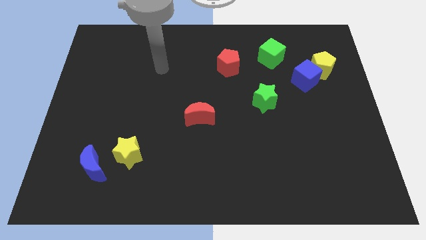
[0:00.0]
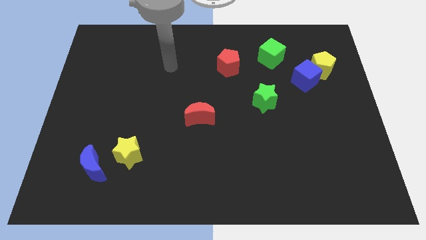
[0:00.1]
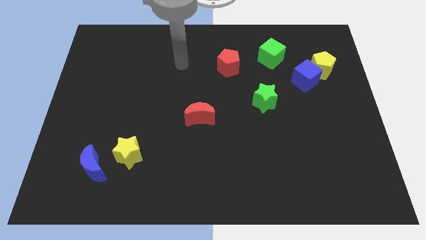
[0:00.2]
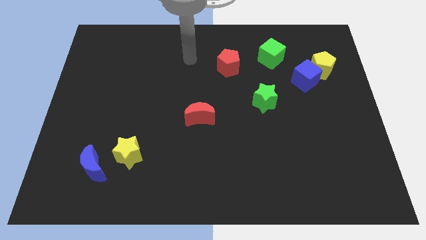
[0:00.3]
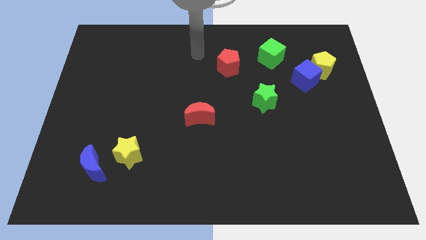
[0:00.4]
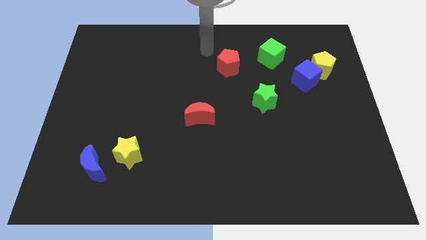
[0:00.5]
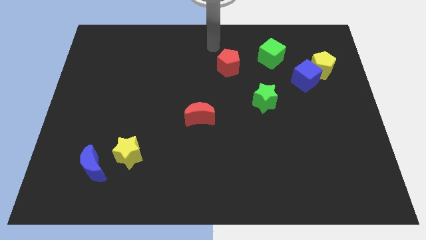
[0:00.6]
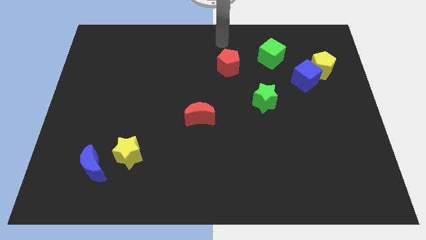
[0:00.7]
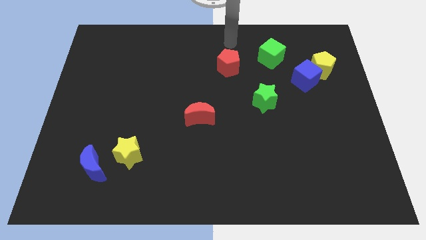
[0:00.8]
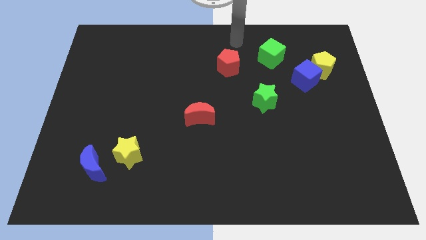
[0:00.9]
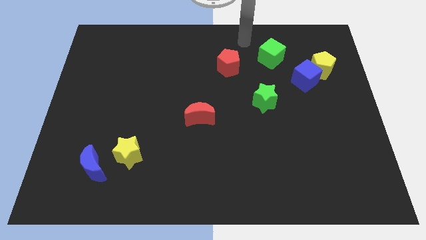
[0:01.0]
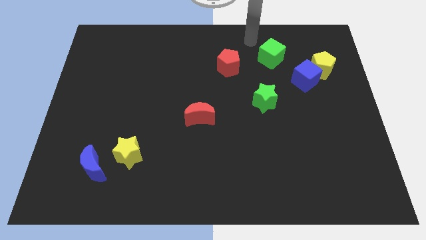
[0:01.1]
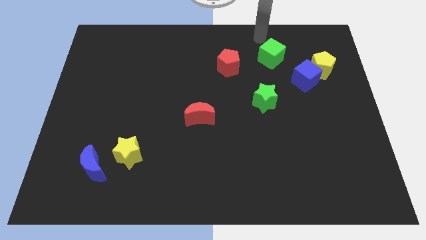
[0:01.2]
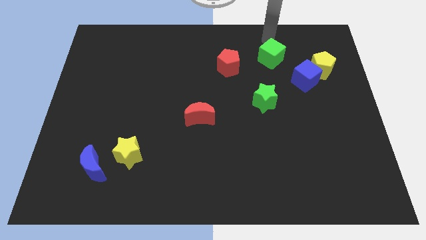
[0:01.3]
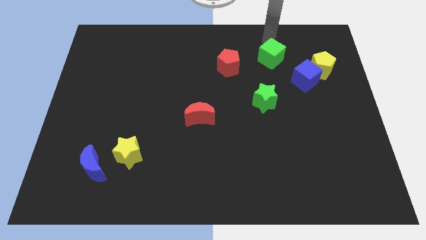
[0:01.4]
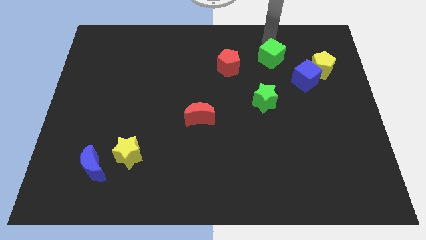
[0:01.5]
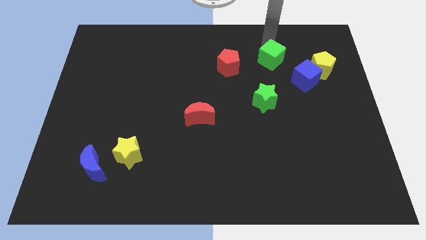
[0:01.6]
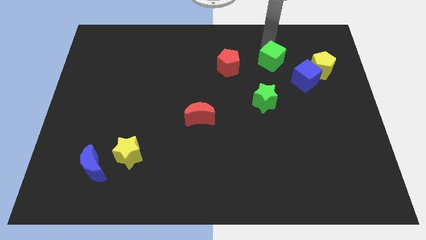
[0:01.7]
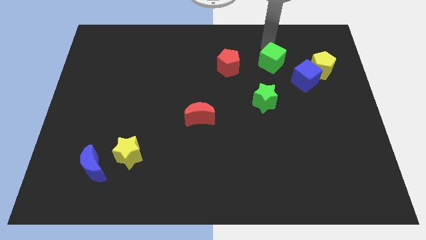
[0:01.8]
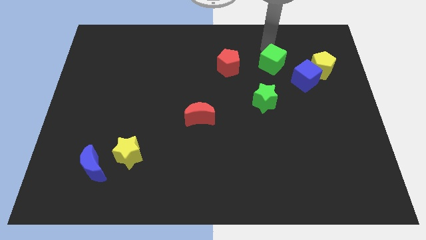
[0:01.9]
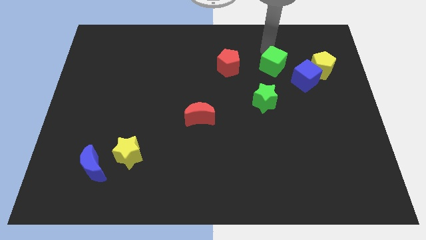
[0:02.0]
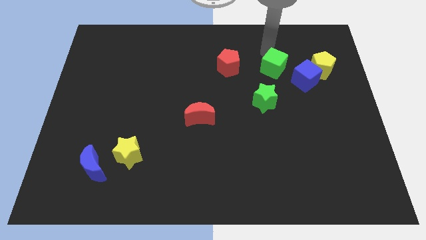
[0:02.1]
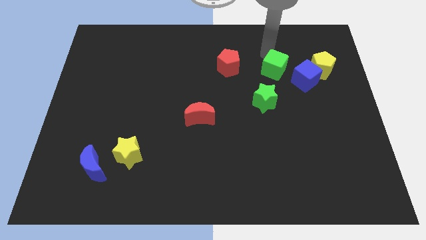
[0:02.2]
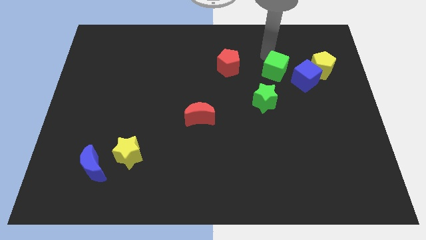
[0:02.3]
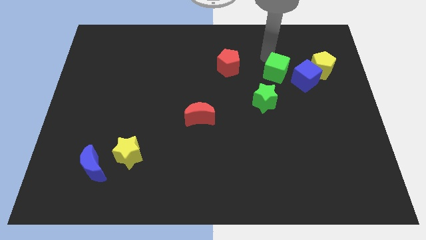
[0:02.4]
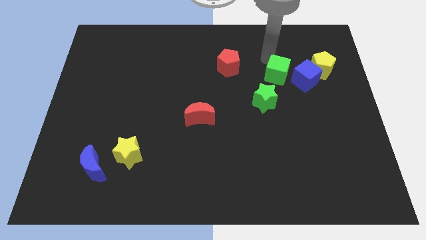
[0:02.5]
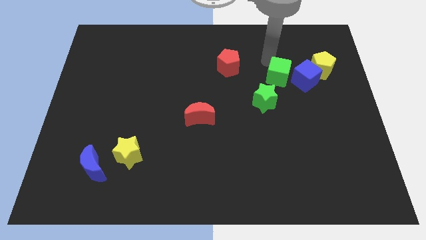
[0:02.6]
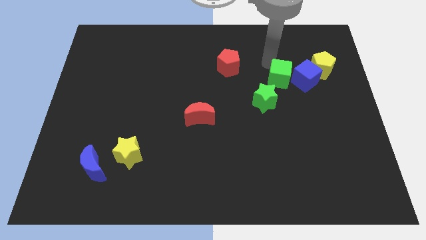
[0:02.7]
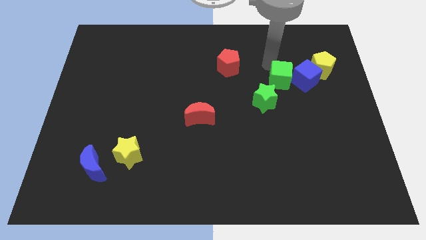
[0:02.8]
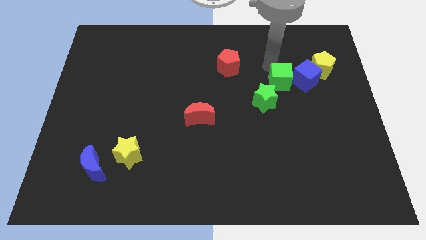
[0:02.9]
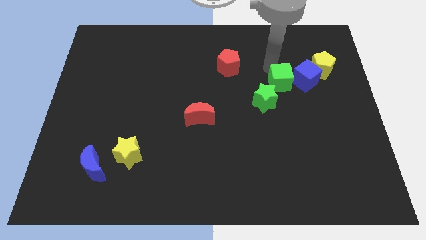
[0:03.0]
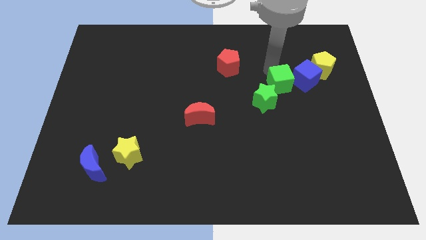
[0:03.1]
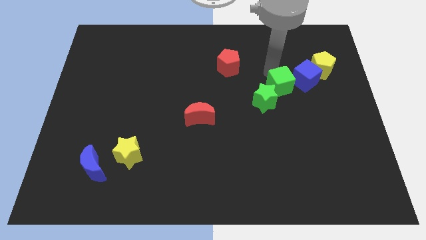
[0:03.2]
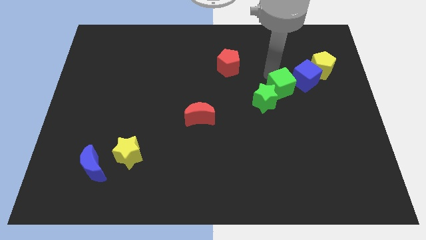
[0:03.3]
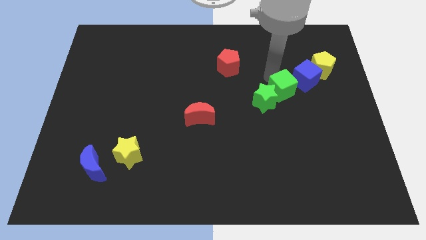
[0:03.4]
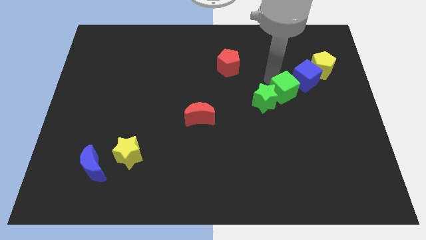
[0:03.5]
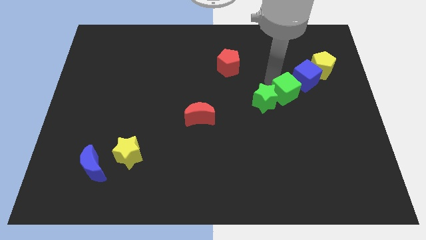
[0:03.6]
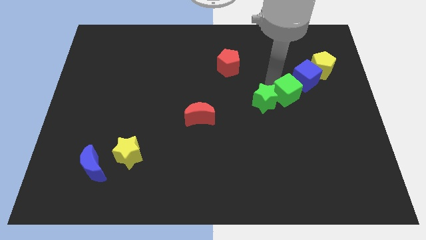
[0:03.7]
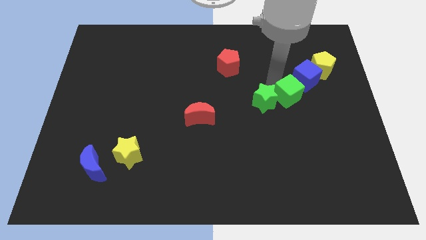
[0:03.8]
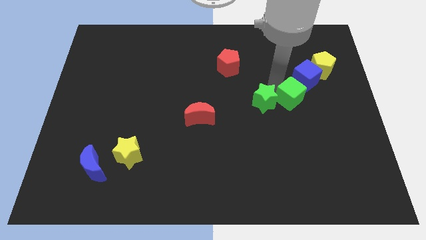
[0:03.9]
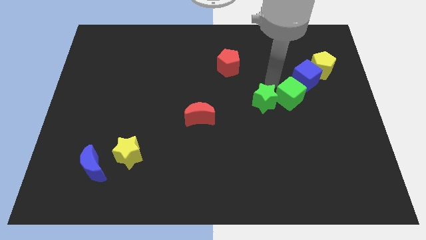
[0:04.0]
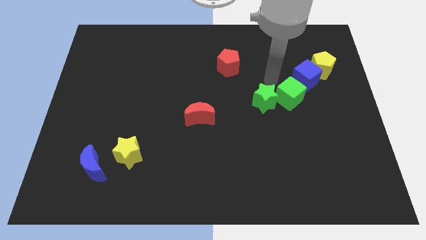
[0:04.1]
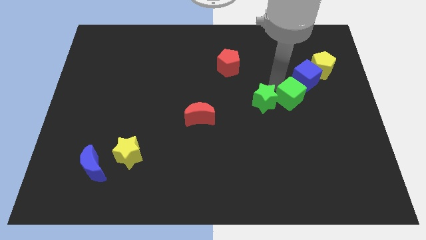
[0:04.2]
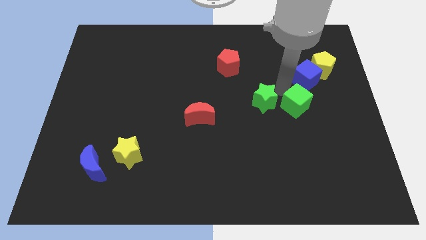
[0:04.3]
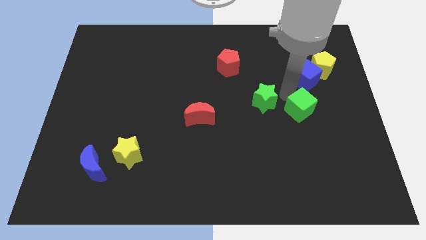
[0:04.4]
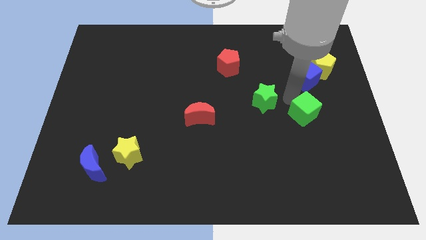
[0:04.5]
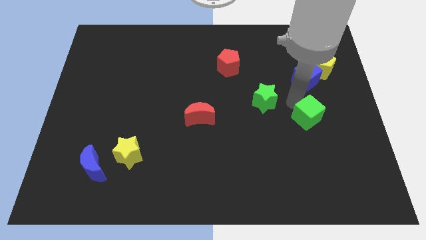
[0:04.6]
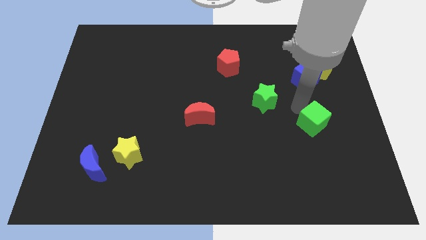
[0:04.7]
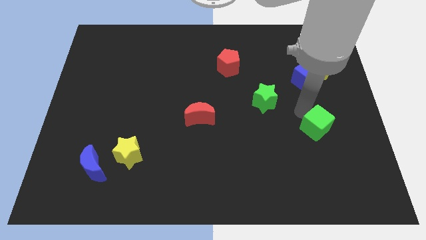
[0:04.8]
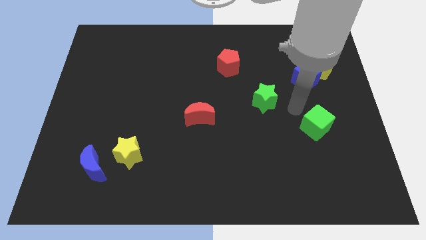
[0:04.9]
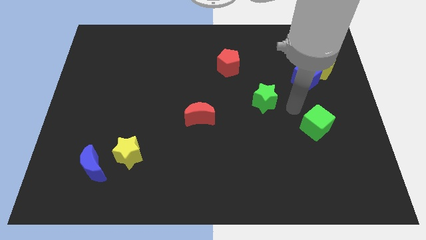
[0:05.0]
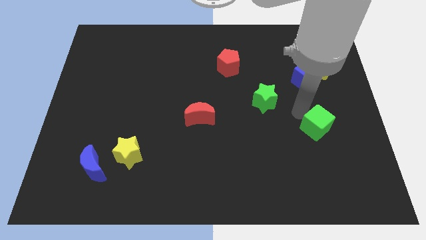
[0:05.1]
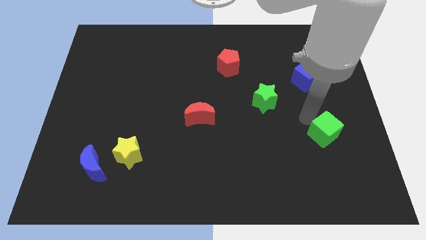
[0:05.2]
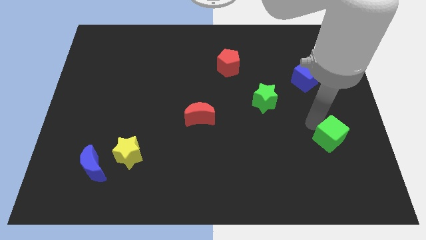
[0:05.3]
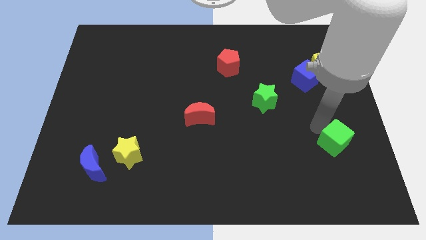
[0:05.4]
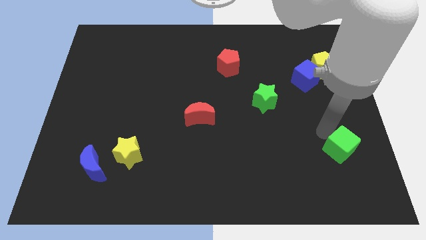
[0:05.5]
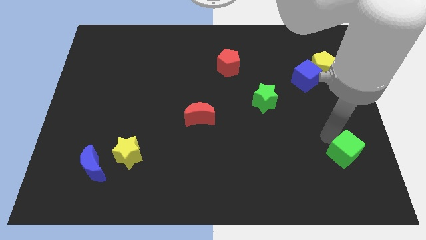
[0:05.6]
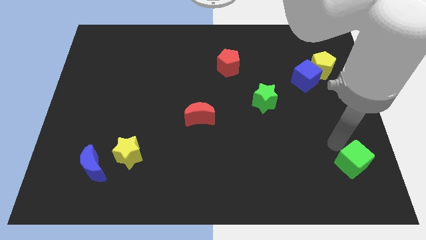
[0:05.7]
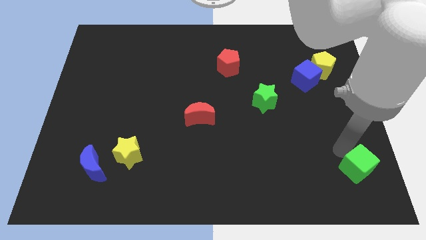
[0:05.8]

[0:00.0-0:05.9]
put the green cube to the lower right corner
